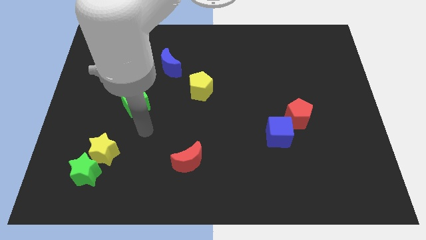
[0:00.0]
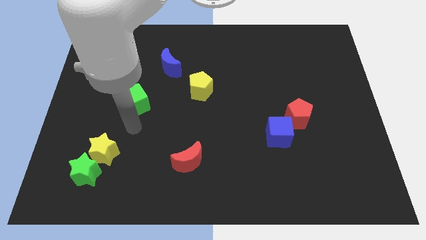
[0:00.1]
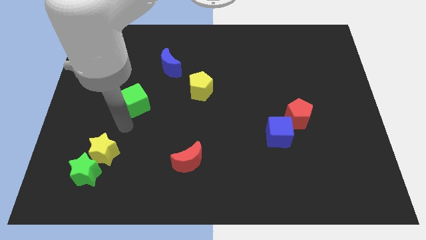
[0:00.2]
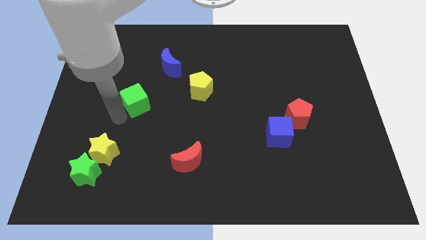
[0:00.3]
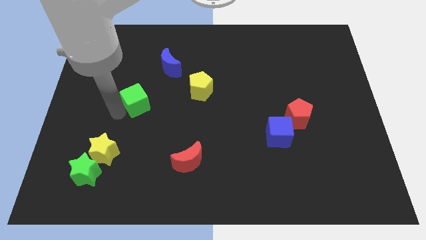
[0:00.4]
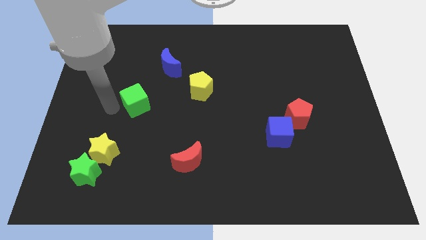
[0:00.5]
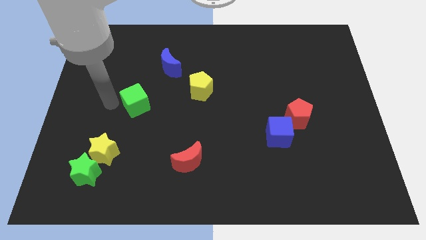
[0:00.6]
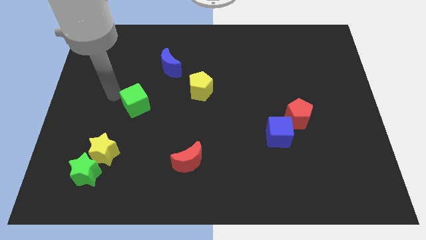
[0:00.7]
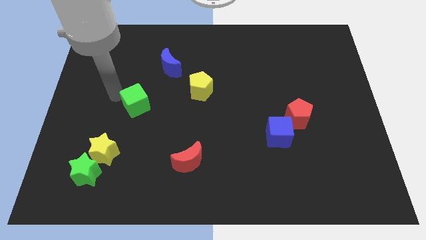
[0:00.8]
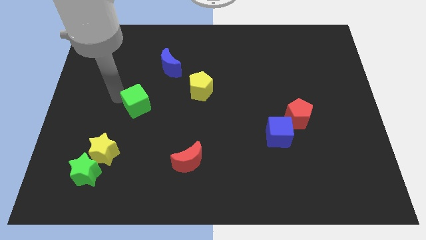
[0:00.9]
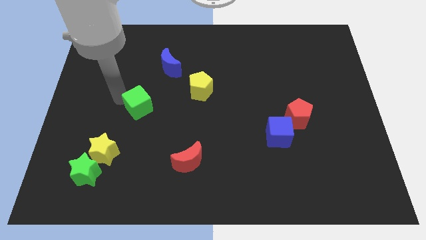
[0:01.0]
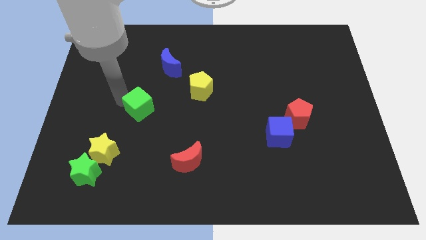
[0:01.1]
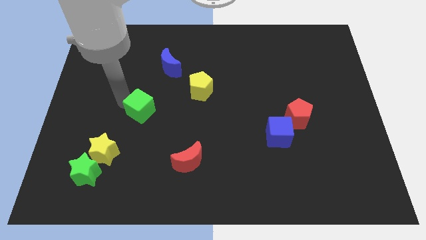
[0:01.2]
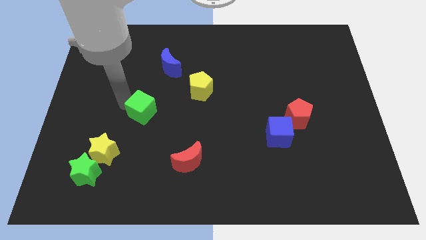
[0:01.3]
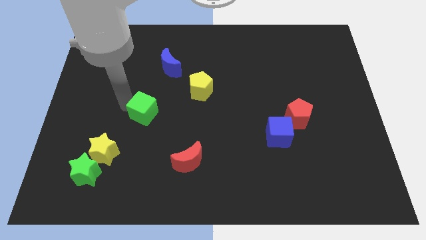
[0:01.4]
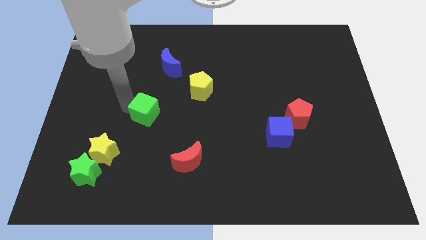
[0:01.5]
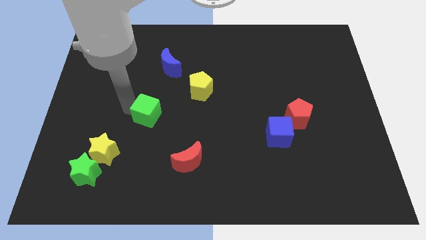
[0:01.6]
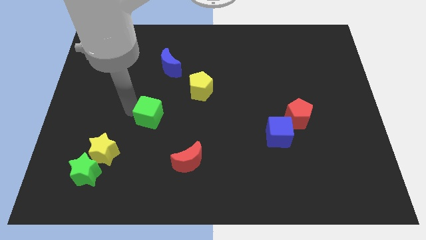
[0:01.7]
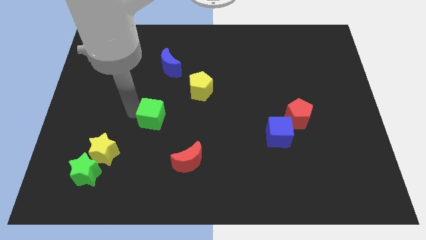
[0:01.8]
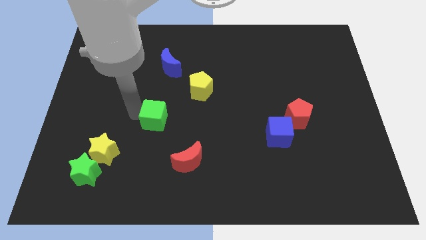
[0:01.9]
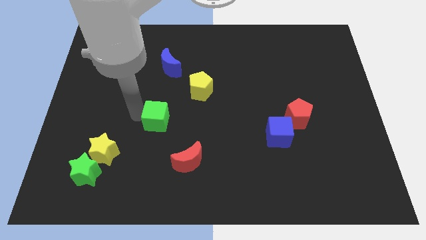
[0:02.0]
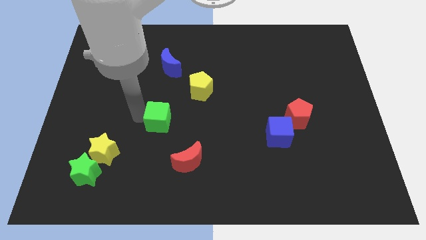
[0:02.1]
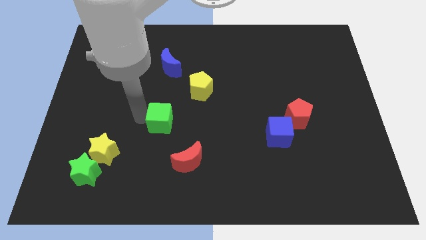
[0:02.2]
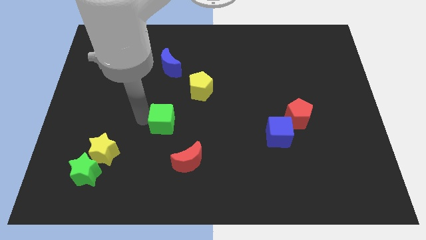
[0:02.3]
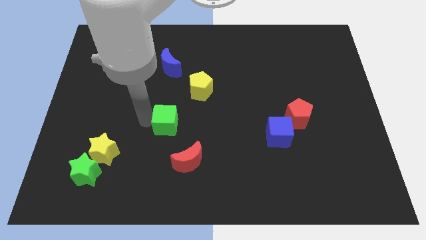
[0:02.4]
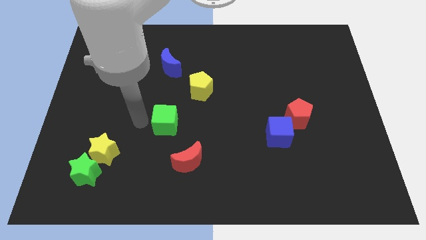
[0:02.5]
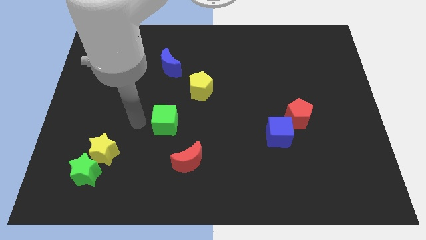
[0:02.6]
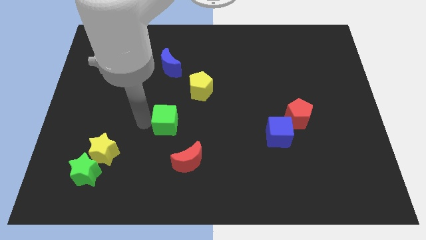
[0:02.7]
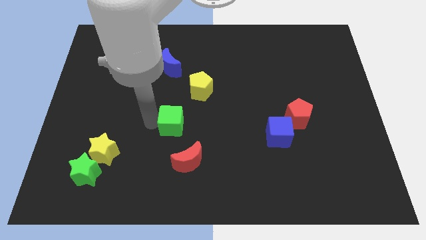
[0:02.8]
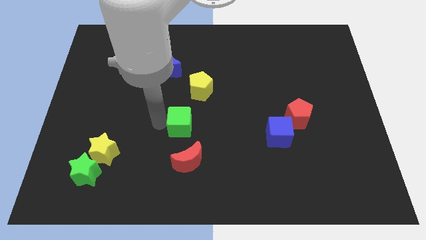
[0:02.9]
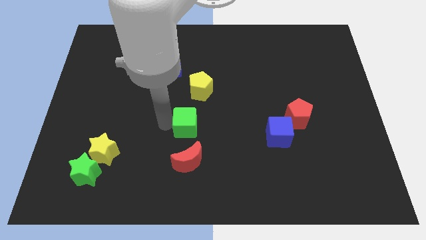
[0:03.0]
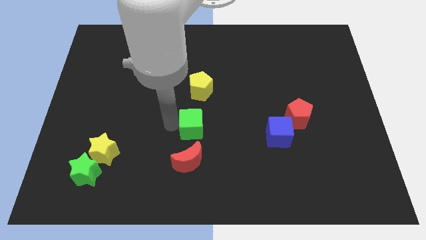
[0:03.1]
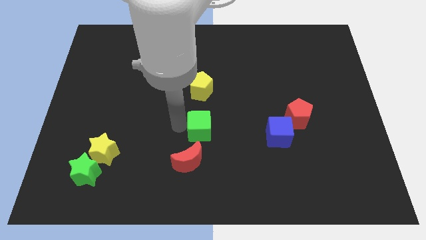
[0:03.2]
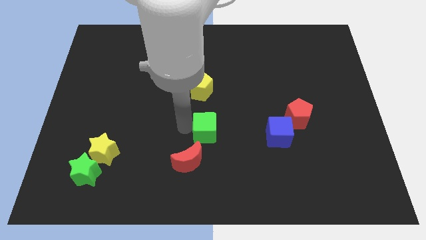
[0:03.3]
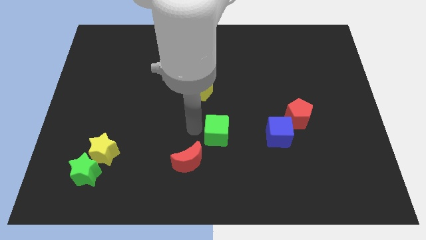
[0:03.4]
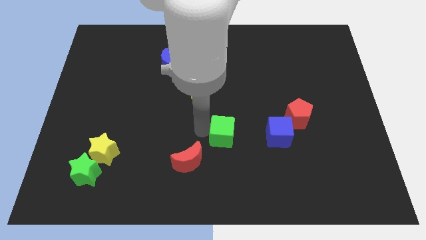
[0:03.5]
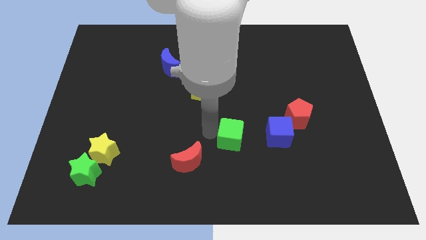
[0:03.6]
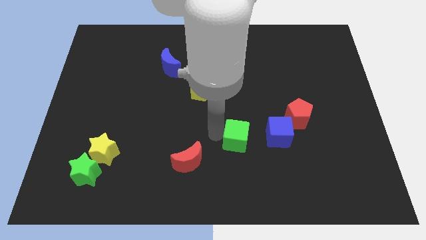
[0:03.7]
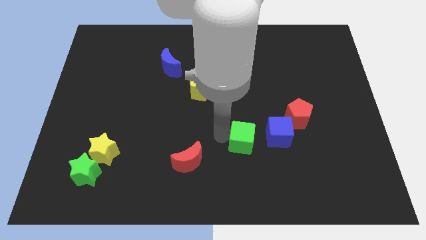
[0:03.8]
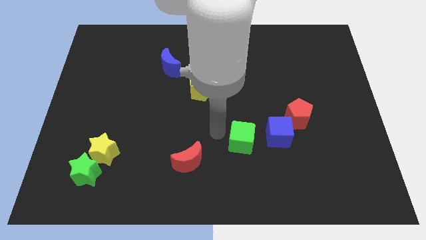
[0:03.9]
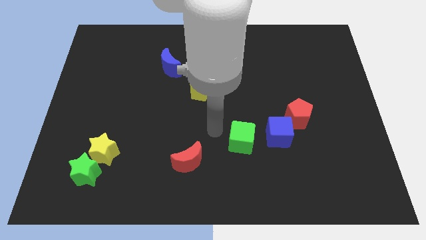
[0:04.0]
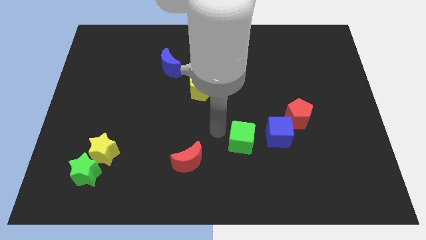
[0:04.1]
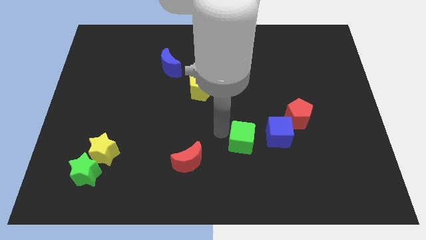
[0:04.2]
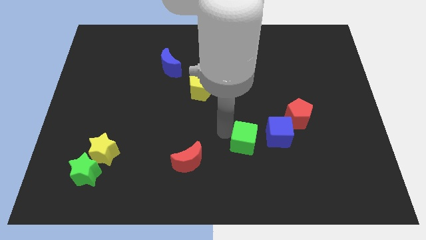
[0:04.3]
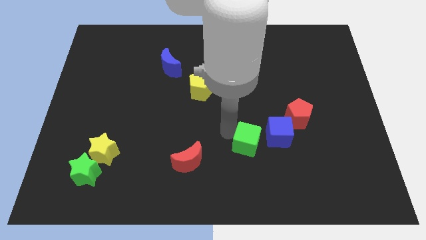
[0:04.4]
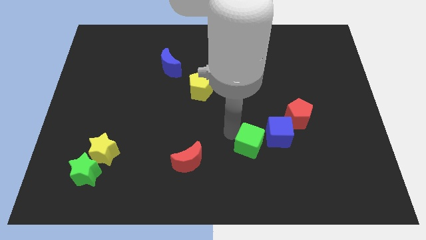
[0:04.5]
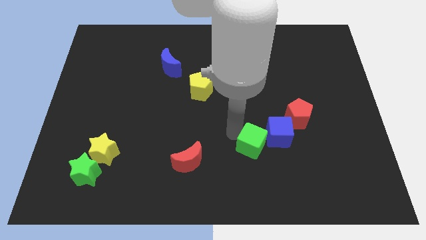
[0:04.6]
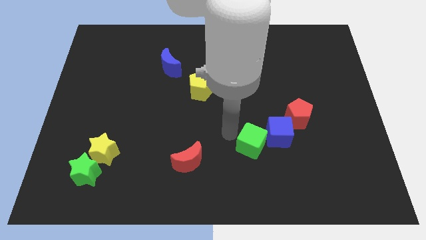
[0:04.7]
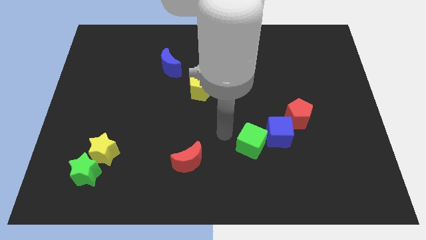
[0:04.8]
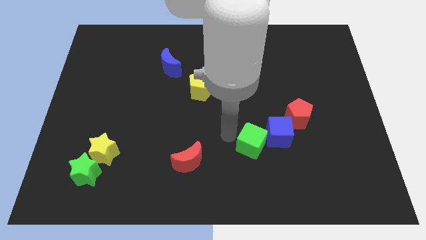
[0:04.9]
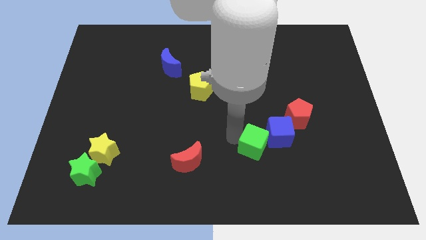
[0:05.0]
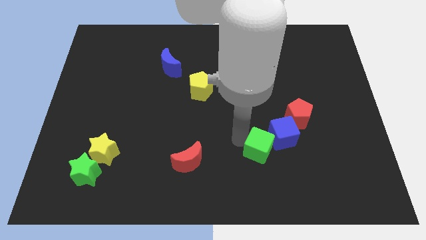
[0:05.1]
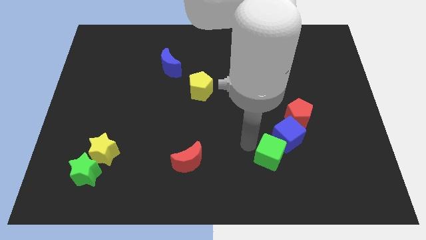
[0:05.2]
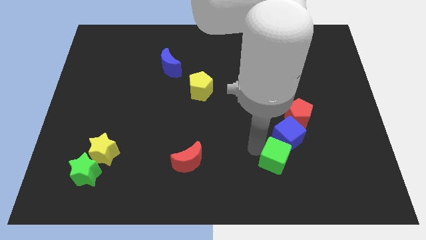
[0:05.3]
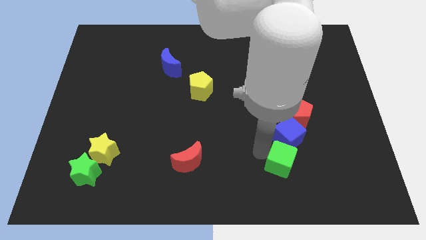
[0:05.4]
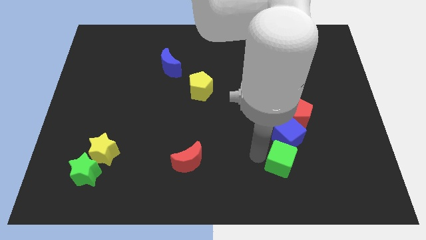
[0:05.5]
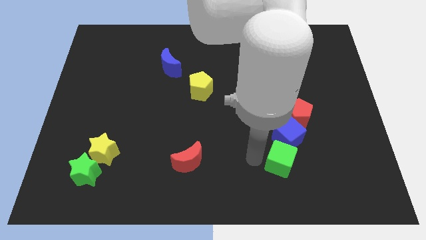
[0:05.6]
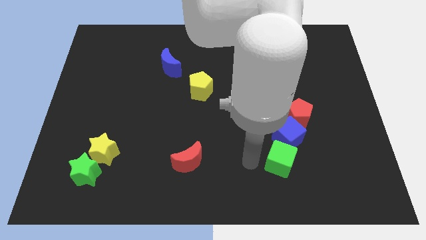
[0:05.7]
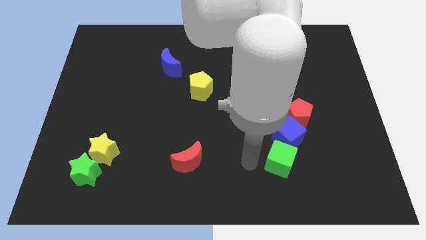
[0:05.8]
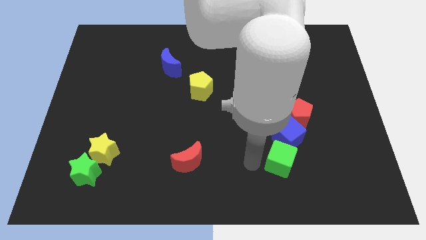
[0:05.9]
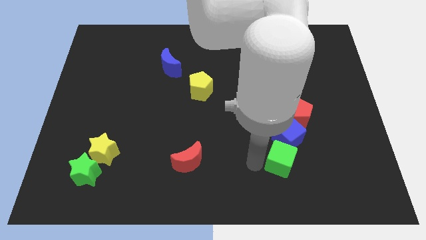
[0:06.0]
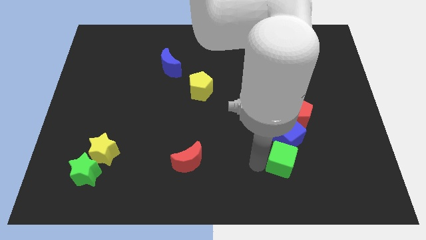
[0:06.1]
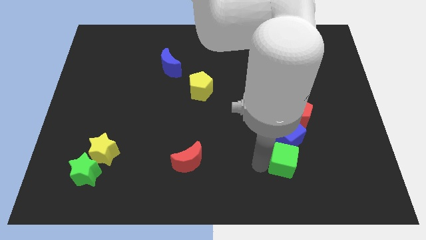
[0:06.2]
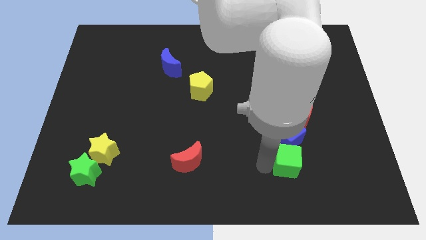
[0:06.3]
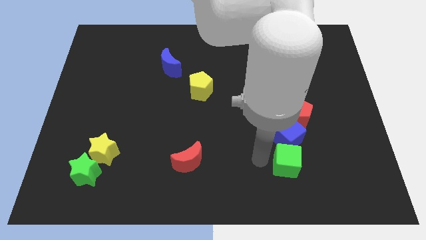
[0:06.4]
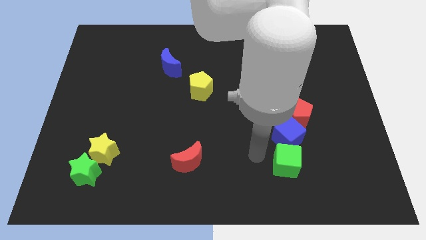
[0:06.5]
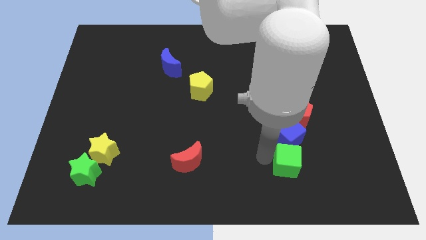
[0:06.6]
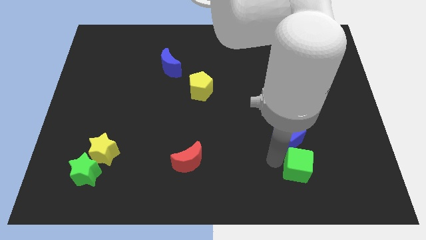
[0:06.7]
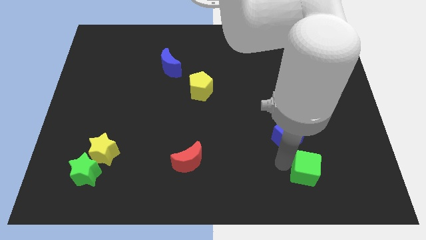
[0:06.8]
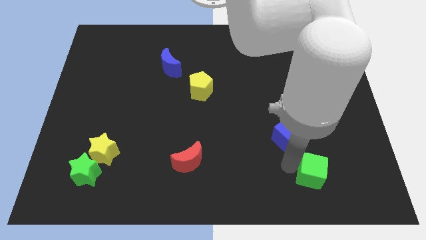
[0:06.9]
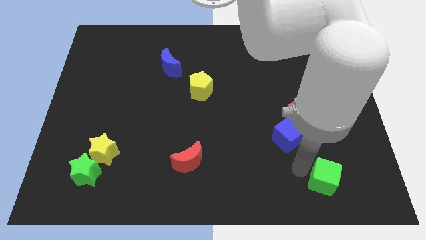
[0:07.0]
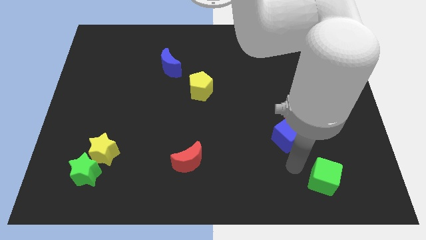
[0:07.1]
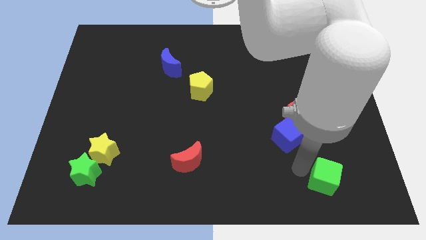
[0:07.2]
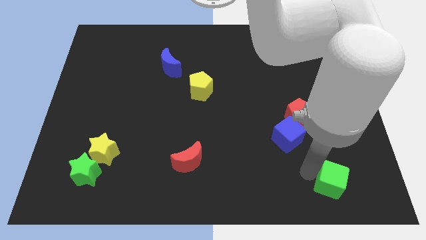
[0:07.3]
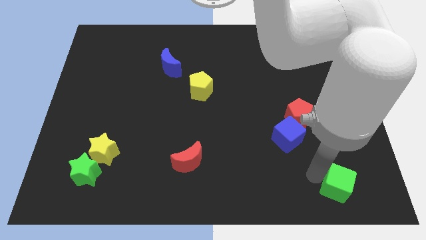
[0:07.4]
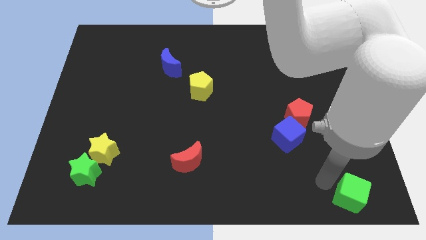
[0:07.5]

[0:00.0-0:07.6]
slide the green cube to the bottom right

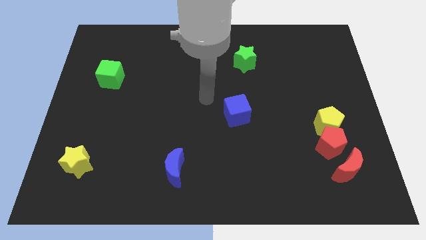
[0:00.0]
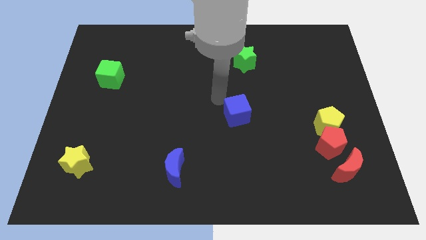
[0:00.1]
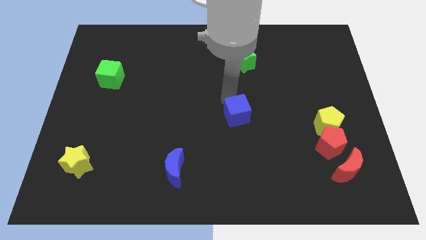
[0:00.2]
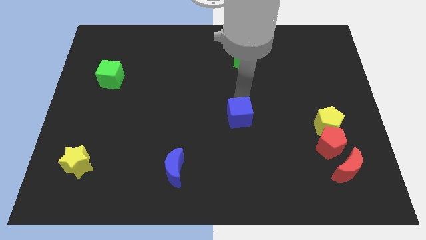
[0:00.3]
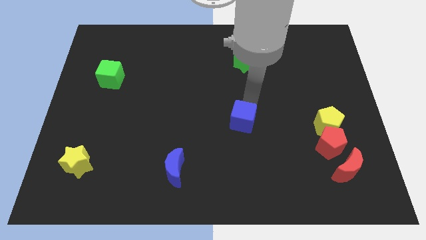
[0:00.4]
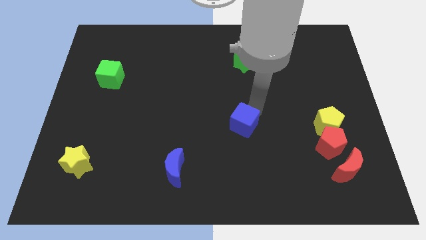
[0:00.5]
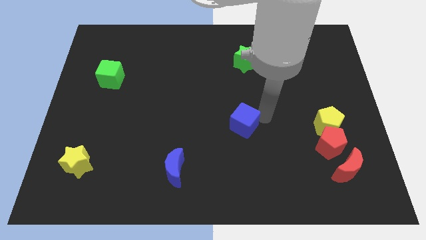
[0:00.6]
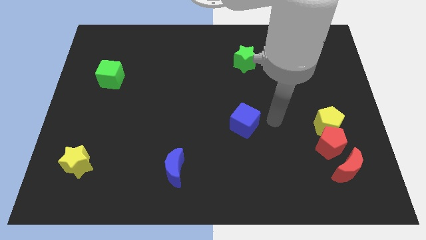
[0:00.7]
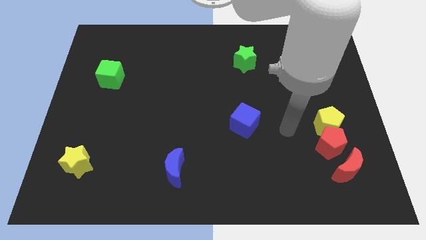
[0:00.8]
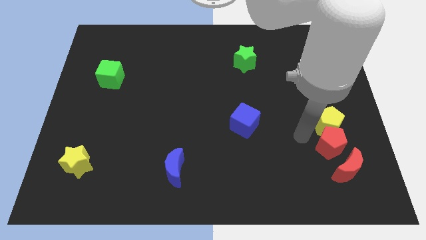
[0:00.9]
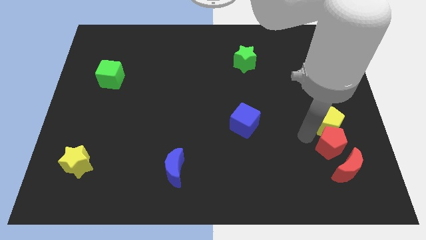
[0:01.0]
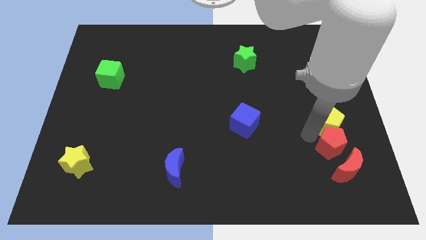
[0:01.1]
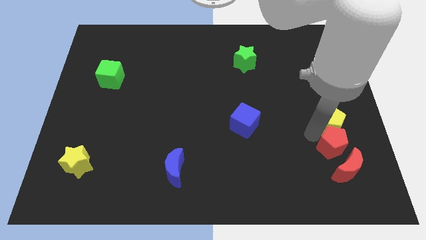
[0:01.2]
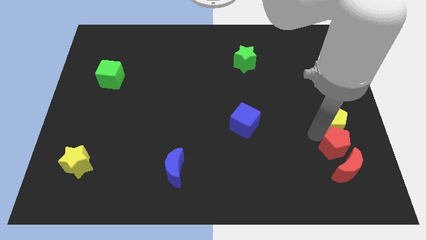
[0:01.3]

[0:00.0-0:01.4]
slide the yellow pentagon to the center right
